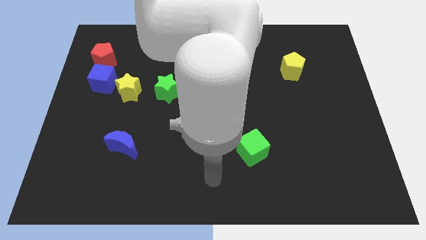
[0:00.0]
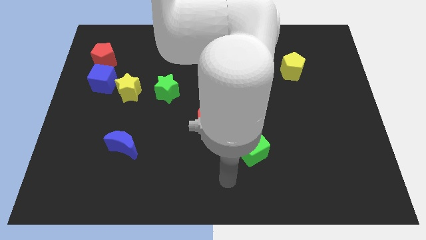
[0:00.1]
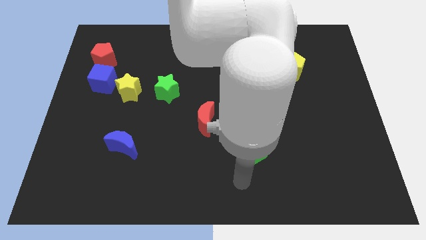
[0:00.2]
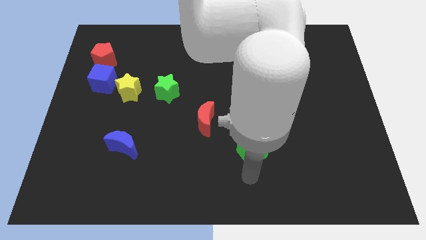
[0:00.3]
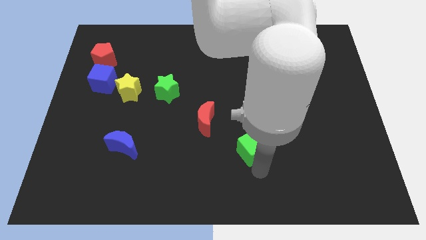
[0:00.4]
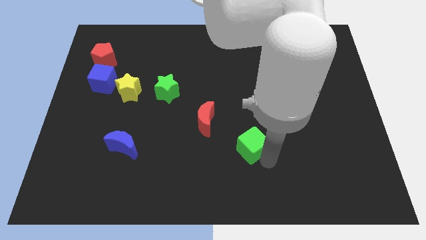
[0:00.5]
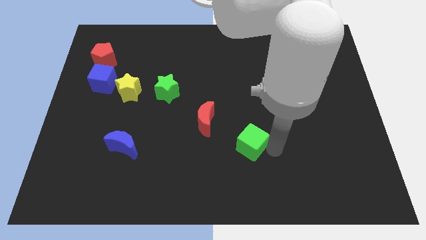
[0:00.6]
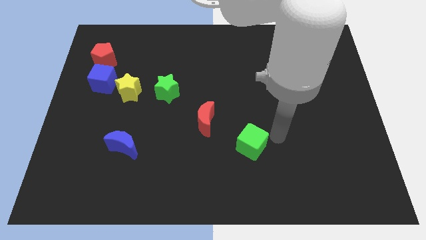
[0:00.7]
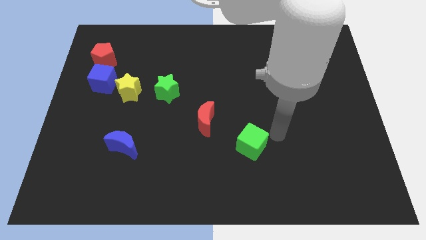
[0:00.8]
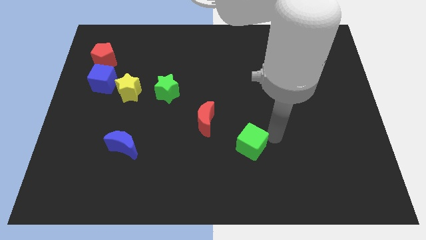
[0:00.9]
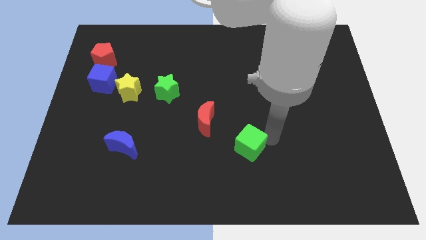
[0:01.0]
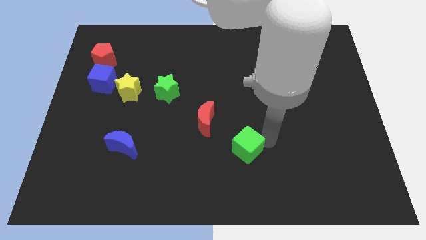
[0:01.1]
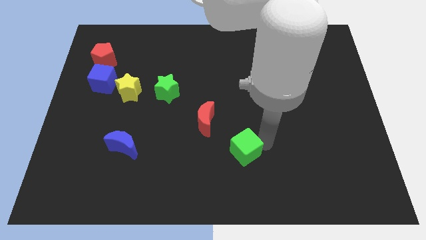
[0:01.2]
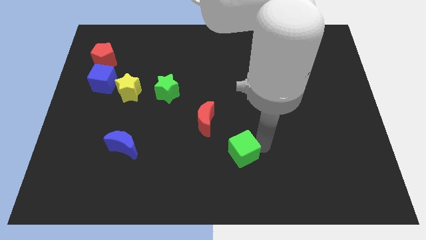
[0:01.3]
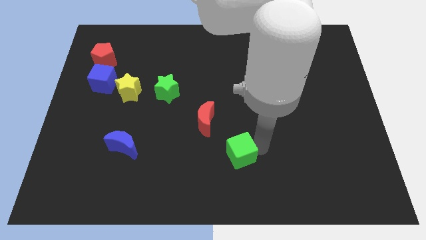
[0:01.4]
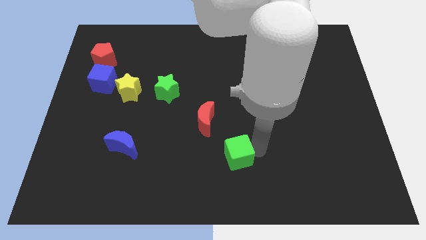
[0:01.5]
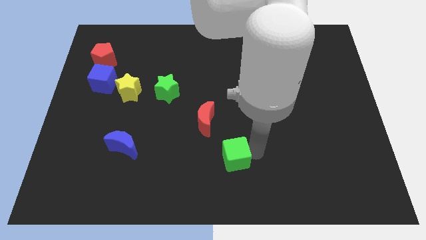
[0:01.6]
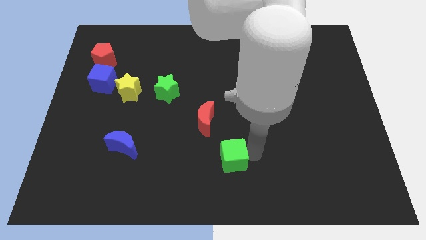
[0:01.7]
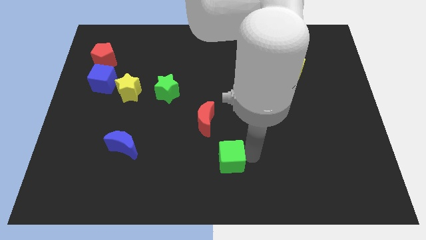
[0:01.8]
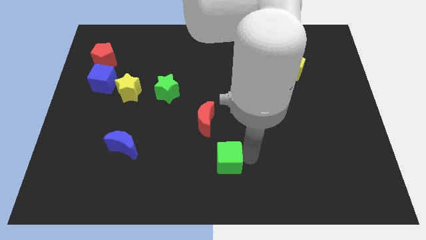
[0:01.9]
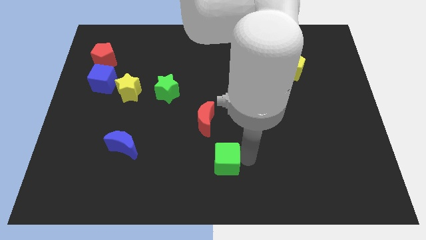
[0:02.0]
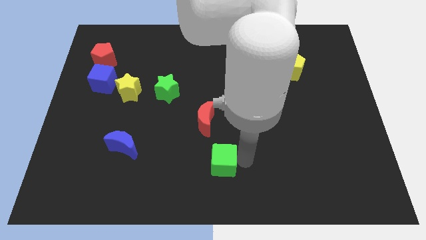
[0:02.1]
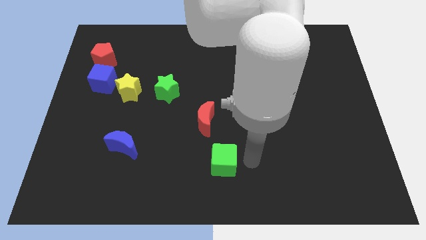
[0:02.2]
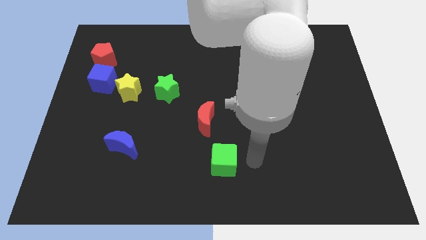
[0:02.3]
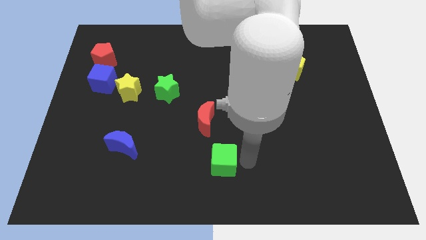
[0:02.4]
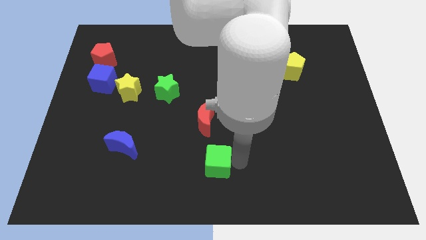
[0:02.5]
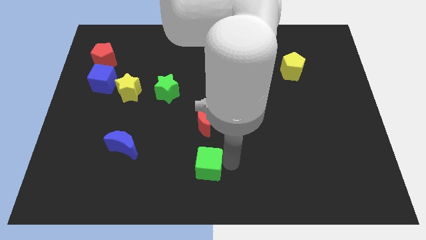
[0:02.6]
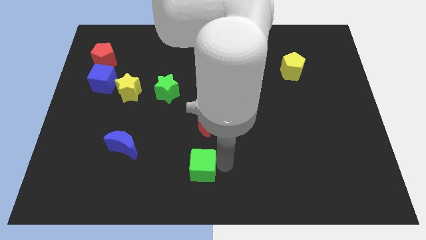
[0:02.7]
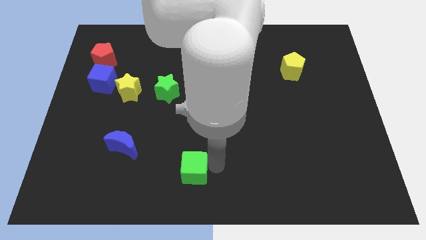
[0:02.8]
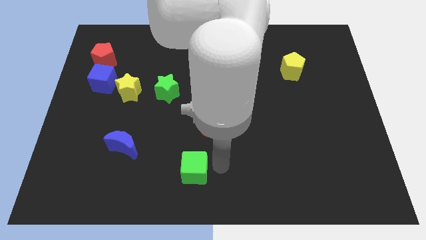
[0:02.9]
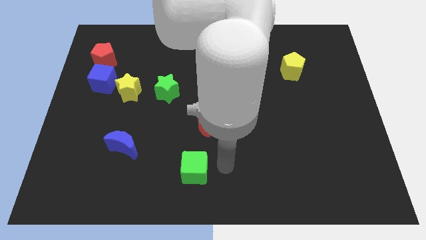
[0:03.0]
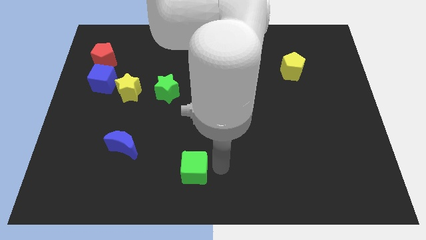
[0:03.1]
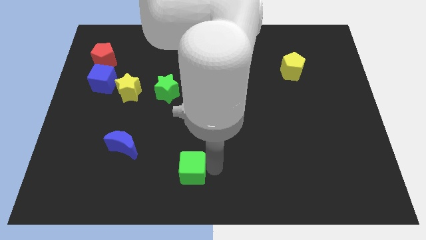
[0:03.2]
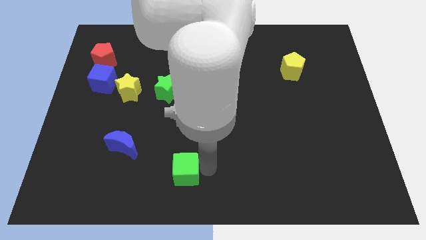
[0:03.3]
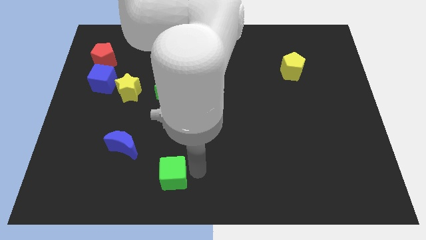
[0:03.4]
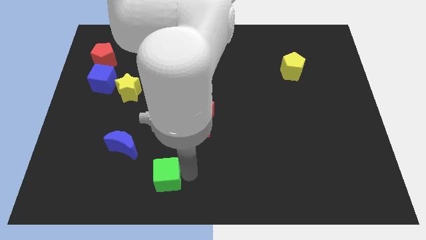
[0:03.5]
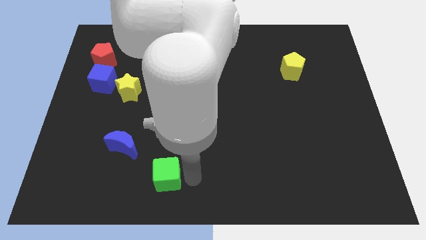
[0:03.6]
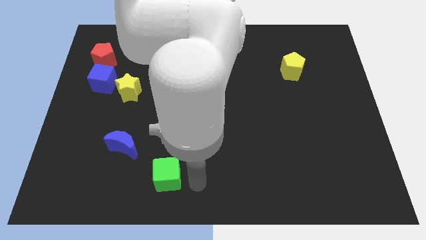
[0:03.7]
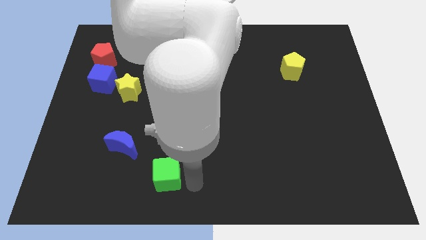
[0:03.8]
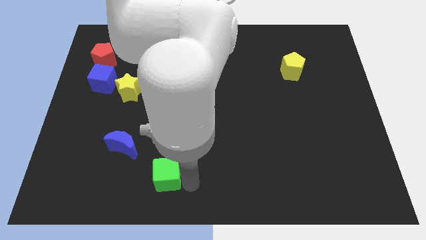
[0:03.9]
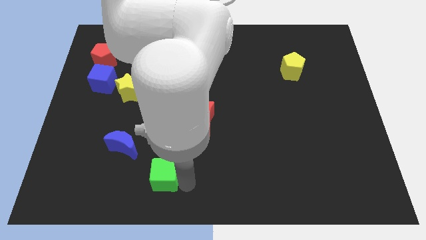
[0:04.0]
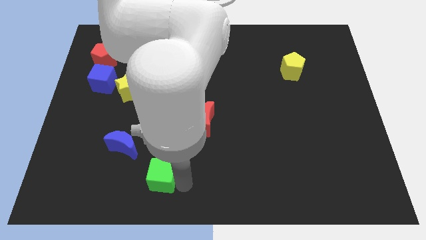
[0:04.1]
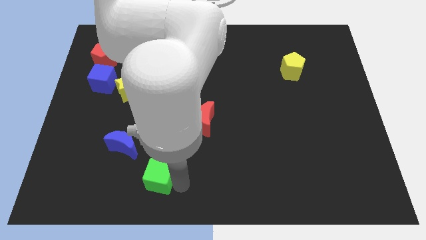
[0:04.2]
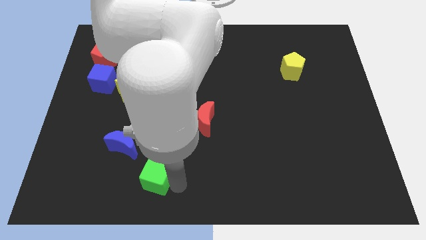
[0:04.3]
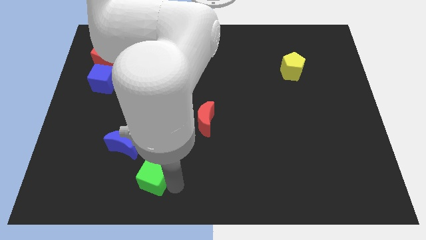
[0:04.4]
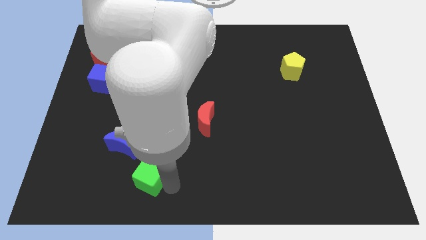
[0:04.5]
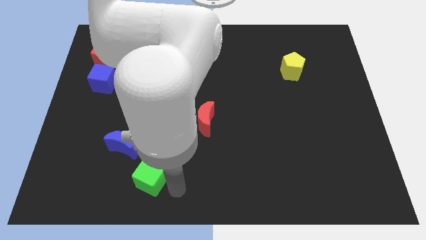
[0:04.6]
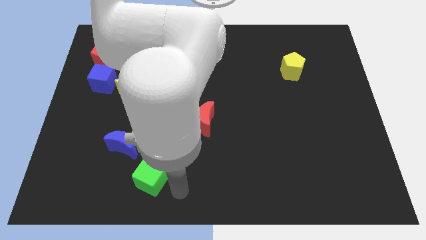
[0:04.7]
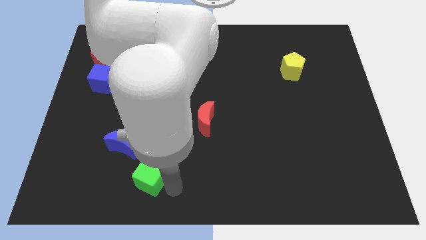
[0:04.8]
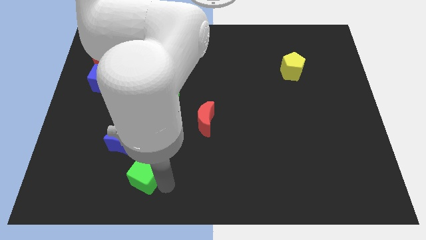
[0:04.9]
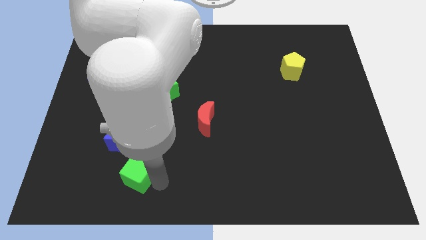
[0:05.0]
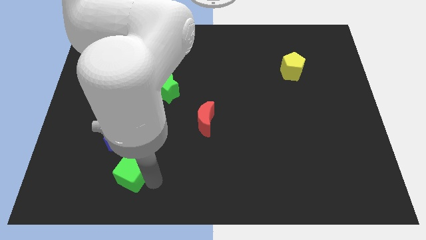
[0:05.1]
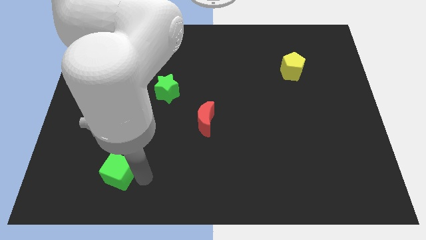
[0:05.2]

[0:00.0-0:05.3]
push the green cube diagonally down and to the left of the blue moon

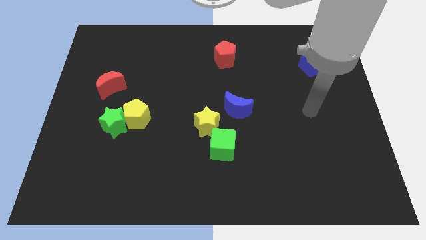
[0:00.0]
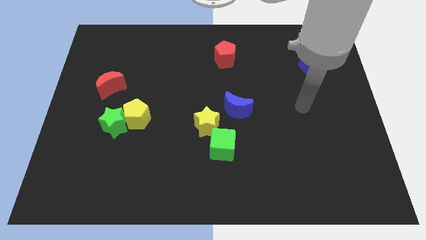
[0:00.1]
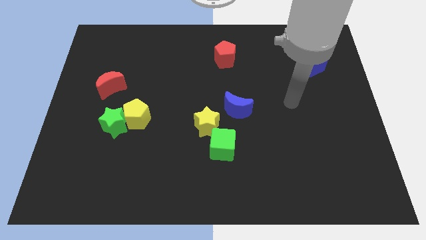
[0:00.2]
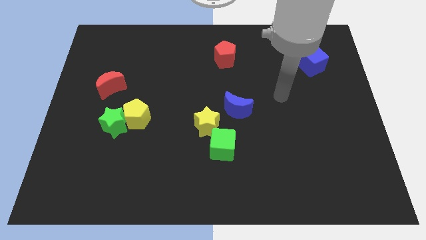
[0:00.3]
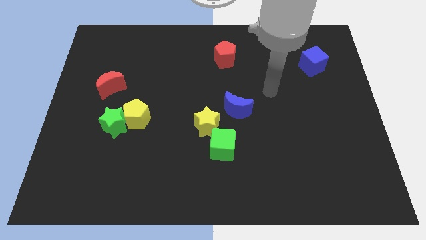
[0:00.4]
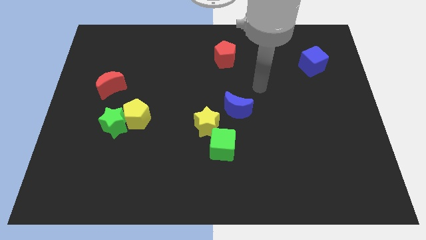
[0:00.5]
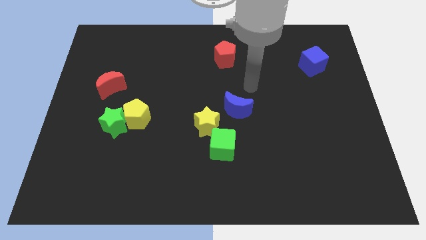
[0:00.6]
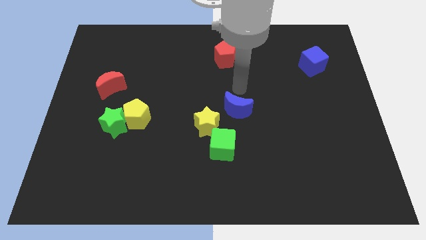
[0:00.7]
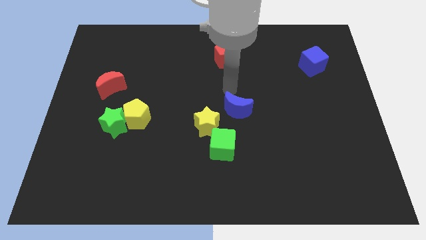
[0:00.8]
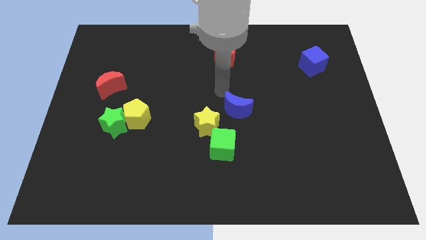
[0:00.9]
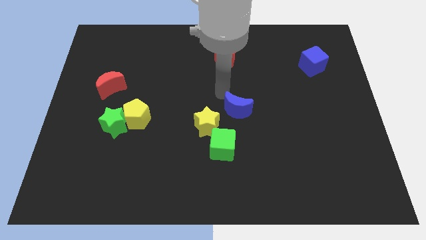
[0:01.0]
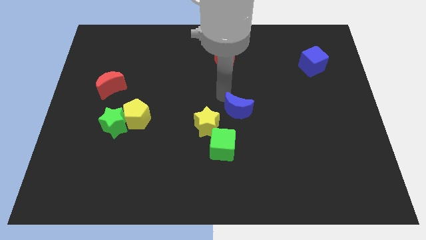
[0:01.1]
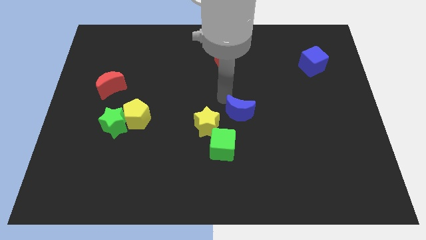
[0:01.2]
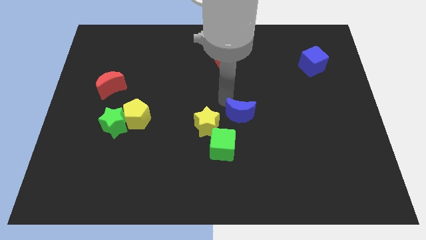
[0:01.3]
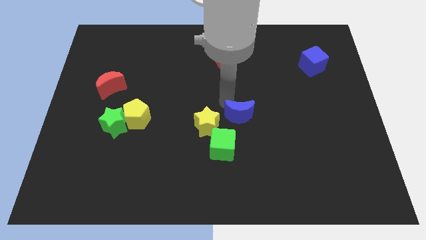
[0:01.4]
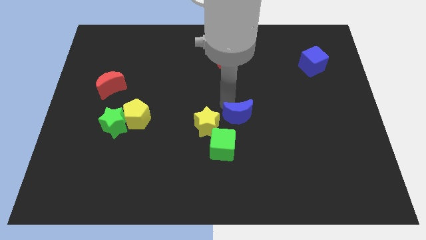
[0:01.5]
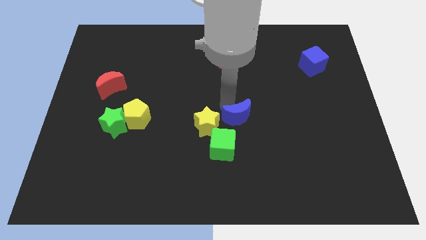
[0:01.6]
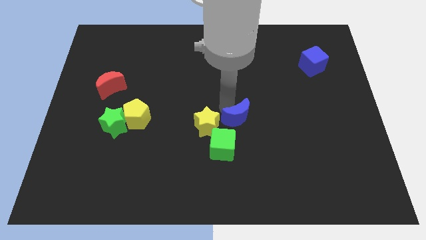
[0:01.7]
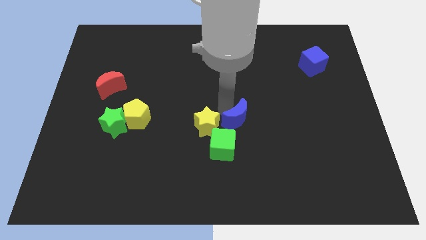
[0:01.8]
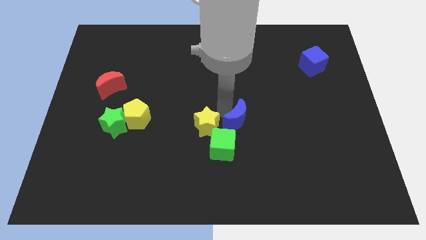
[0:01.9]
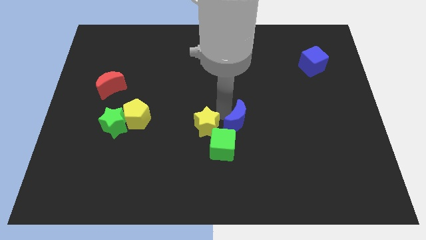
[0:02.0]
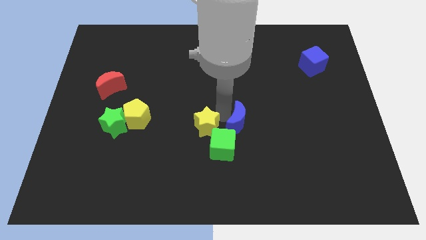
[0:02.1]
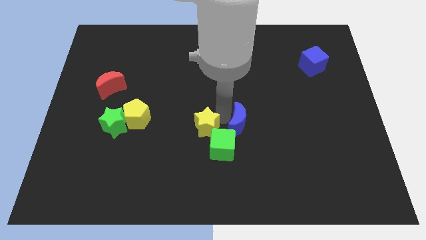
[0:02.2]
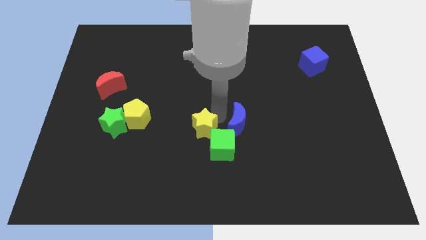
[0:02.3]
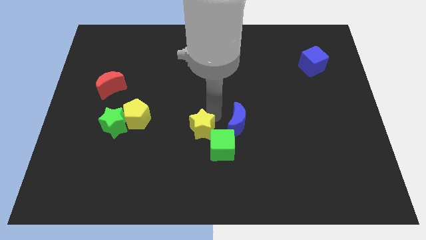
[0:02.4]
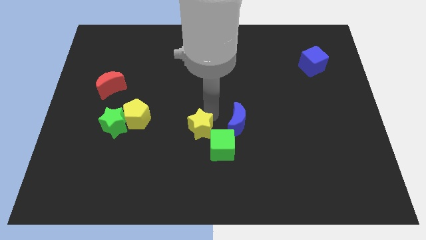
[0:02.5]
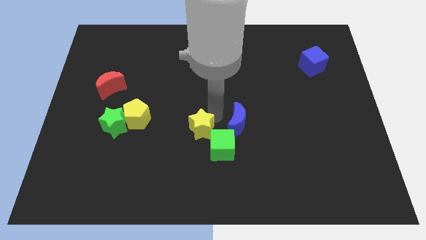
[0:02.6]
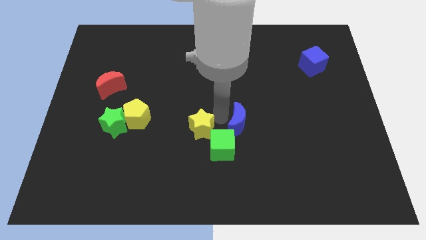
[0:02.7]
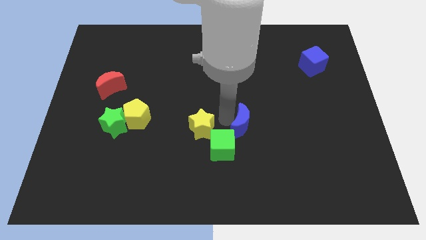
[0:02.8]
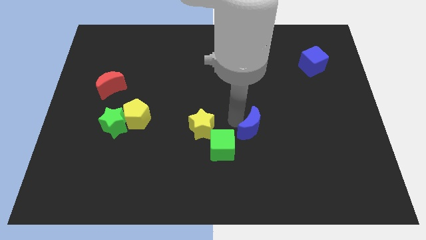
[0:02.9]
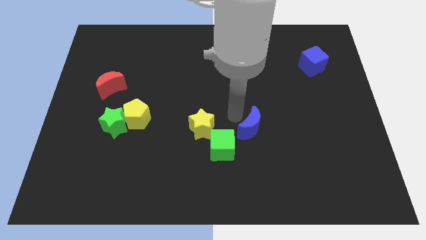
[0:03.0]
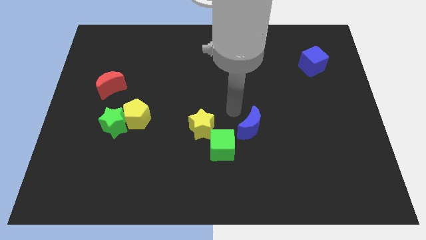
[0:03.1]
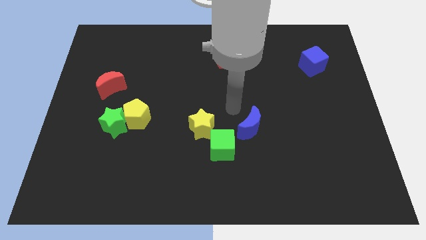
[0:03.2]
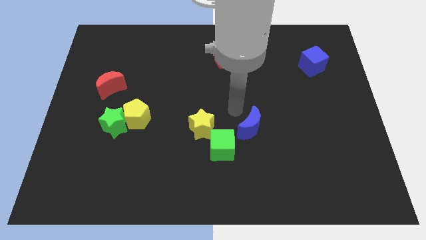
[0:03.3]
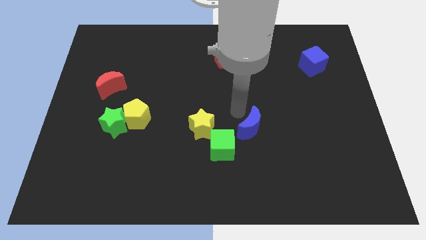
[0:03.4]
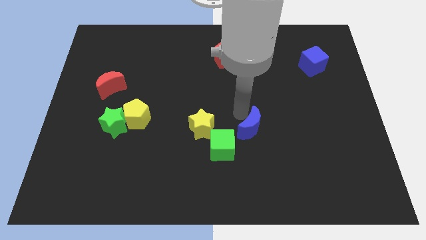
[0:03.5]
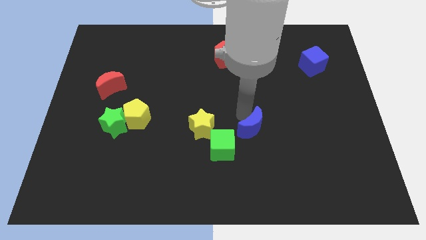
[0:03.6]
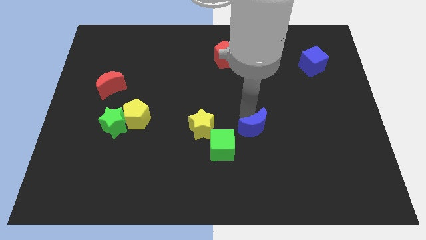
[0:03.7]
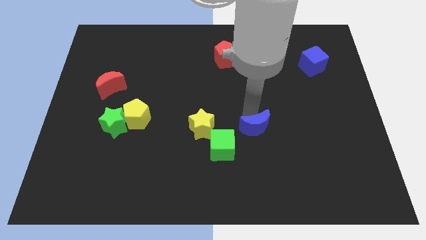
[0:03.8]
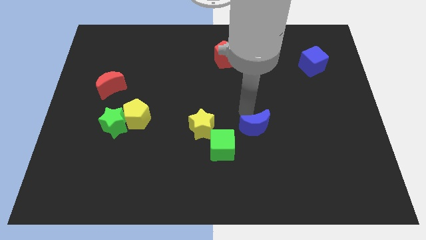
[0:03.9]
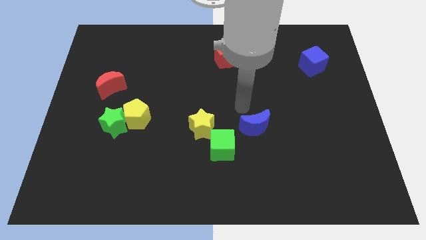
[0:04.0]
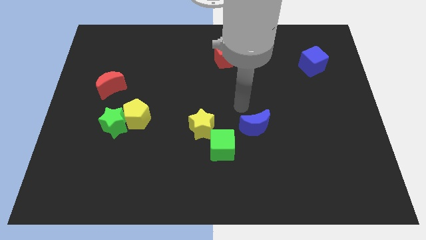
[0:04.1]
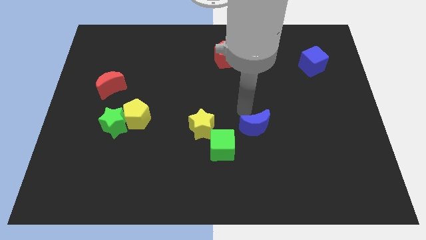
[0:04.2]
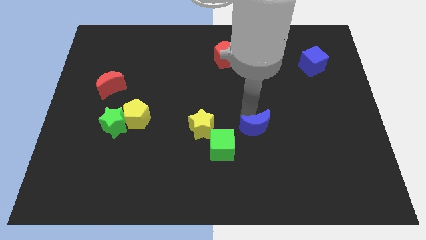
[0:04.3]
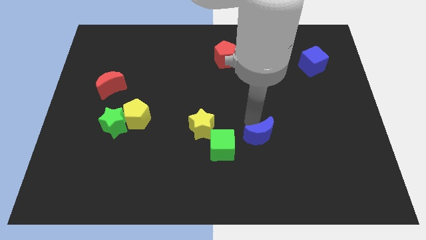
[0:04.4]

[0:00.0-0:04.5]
move the blue moon just right of the green cube
